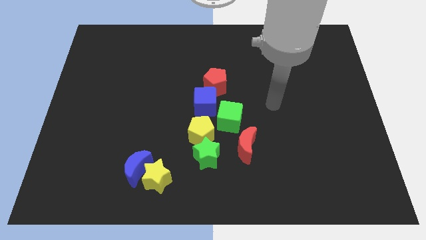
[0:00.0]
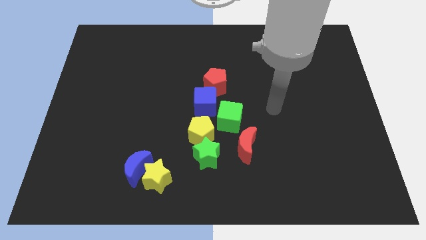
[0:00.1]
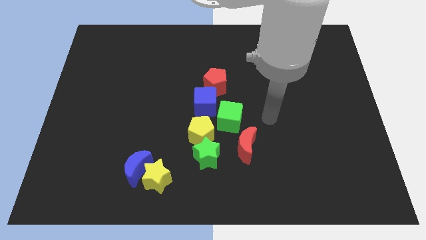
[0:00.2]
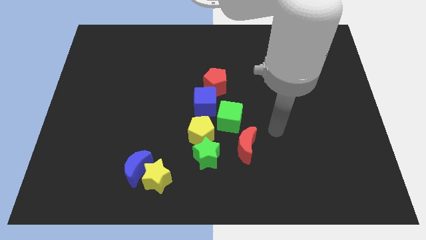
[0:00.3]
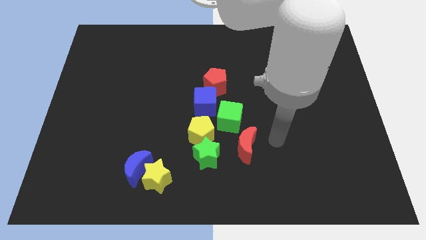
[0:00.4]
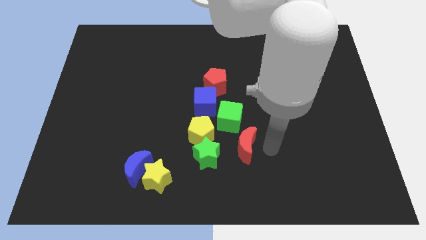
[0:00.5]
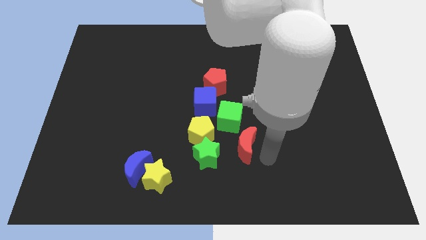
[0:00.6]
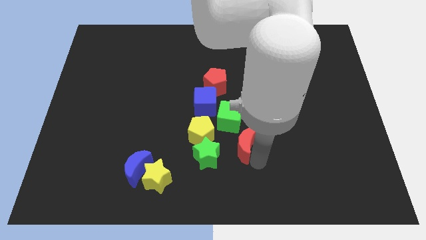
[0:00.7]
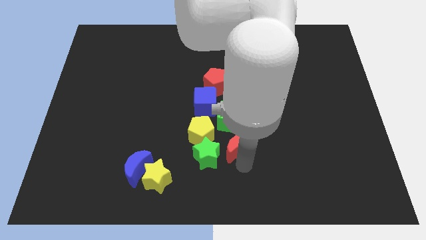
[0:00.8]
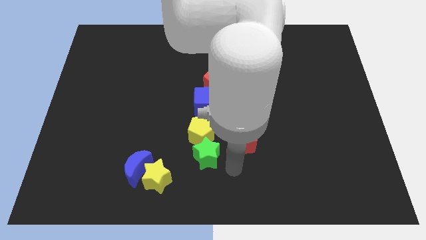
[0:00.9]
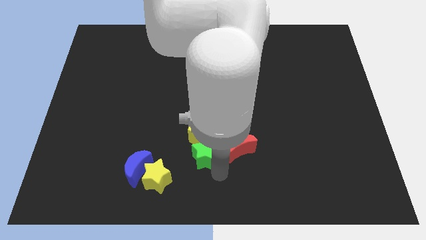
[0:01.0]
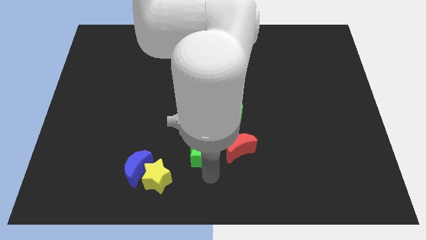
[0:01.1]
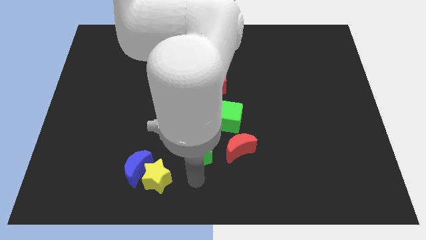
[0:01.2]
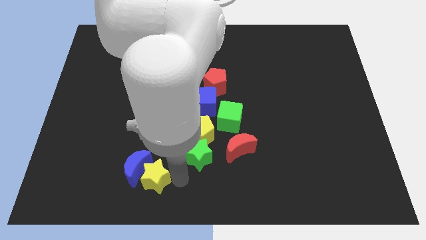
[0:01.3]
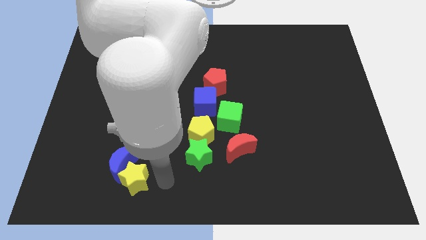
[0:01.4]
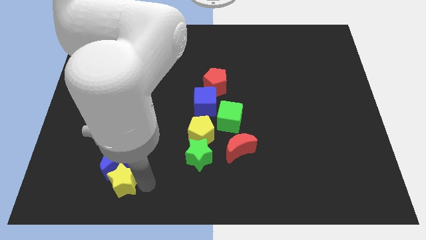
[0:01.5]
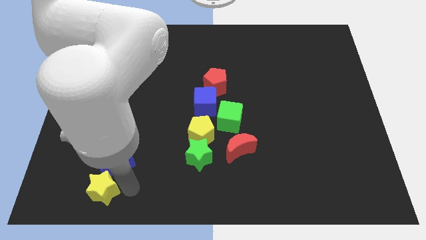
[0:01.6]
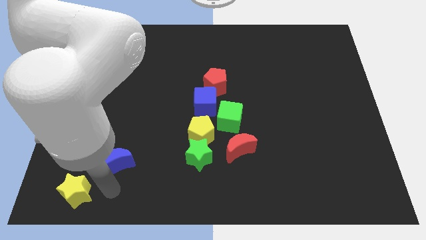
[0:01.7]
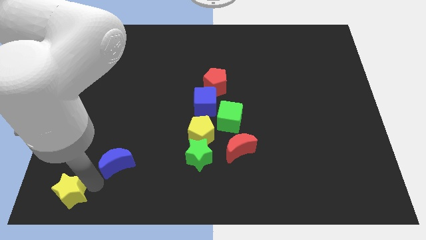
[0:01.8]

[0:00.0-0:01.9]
separate the blue moon from the yellow star

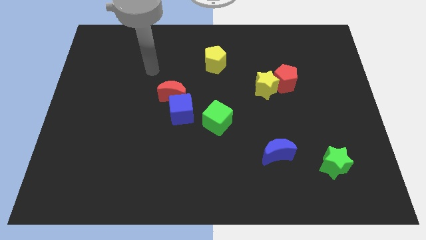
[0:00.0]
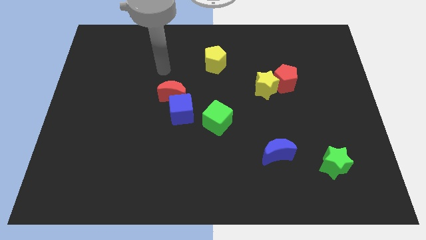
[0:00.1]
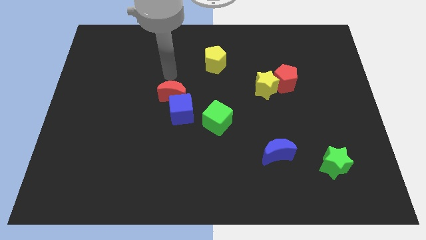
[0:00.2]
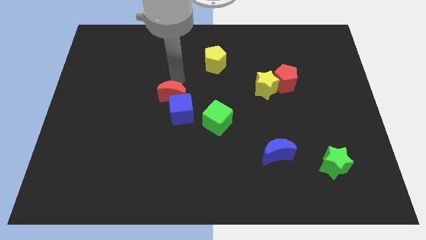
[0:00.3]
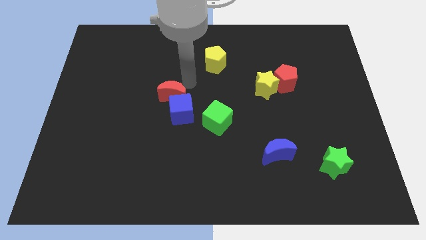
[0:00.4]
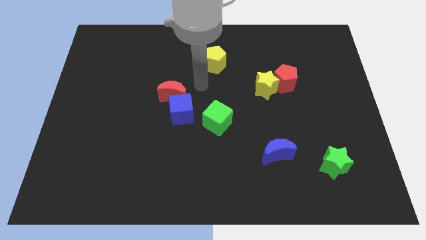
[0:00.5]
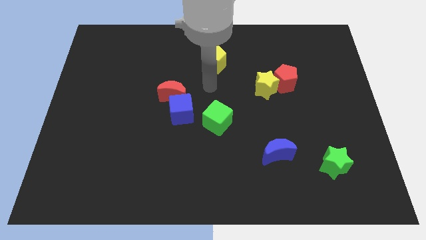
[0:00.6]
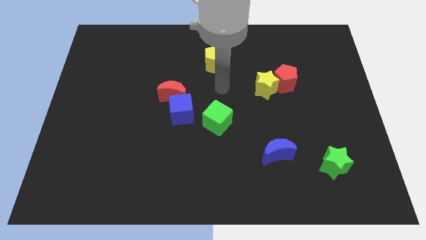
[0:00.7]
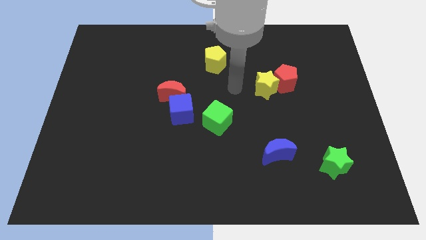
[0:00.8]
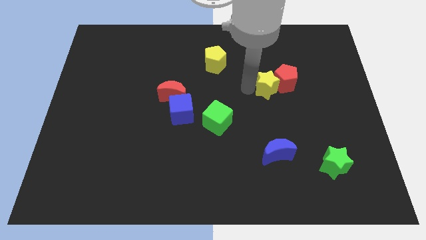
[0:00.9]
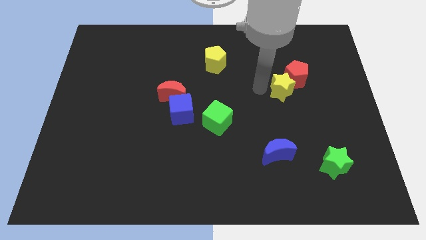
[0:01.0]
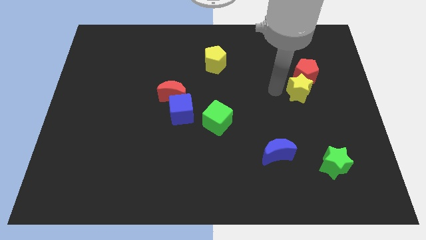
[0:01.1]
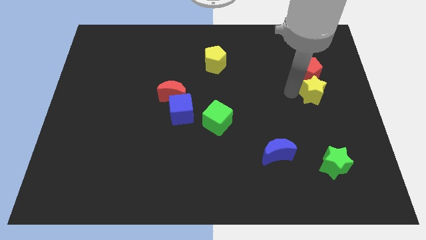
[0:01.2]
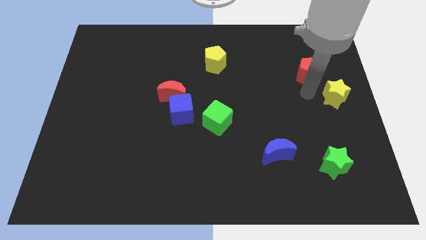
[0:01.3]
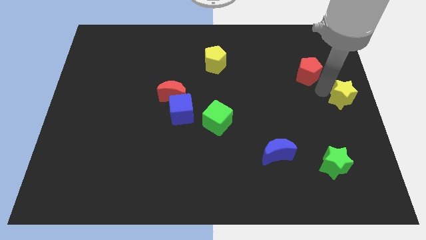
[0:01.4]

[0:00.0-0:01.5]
pull the red pentagon apart from the yellow star

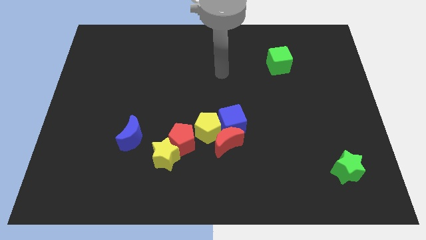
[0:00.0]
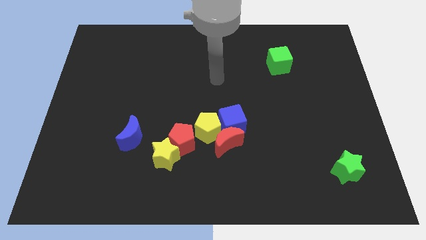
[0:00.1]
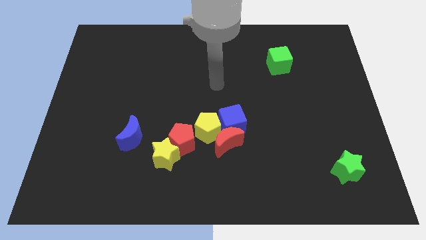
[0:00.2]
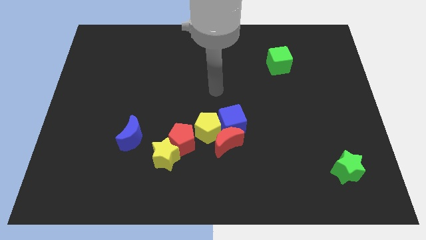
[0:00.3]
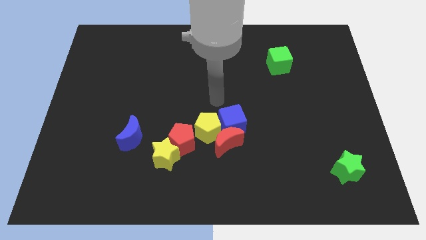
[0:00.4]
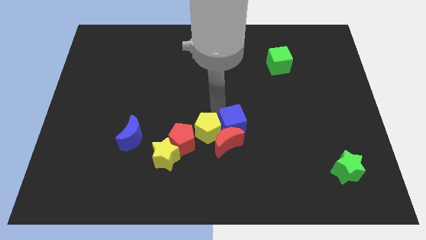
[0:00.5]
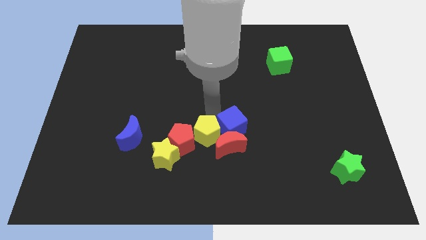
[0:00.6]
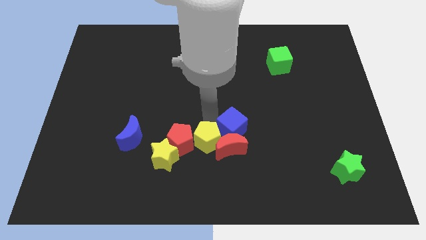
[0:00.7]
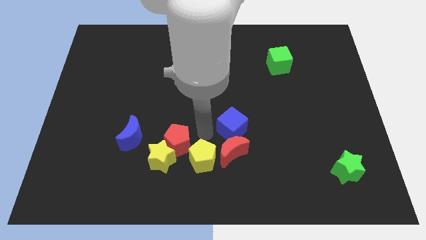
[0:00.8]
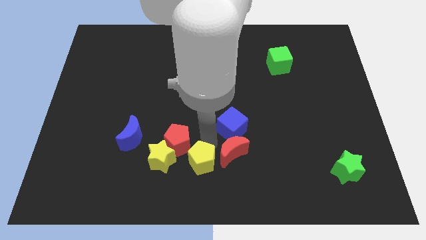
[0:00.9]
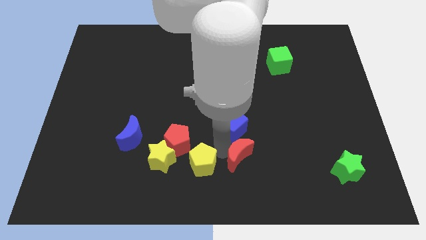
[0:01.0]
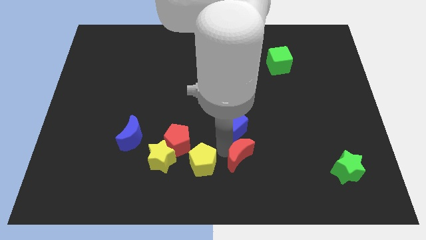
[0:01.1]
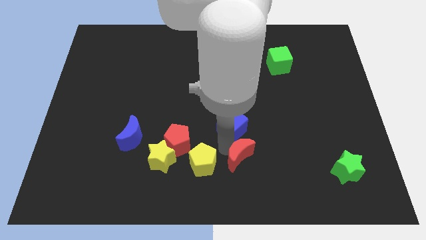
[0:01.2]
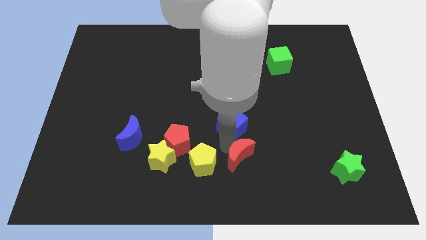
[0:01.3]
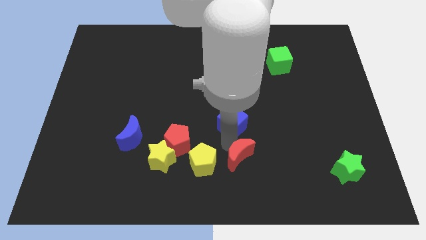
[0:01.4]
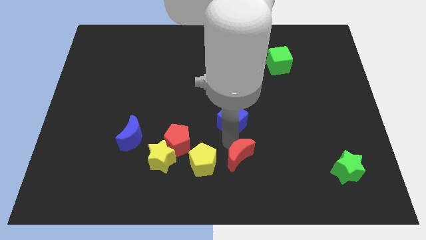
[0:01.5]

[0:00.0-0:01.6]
separate the blue cube from the red moon and yellow pentagon

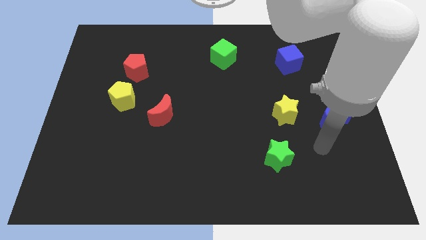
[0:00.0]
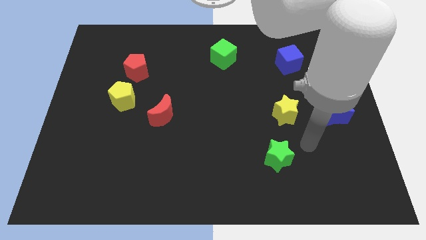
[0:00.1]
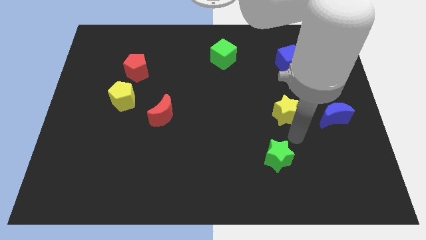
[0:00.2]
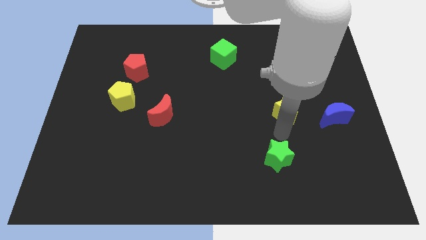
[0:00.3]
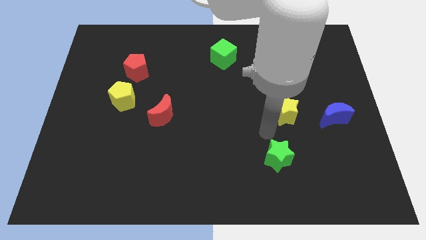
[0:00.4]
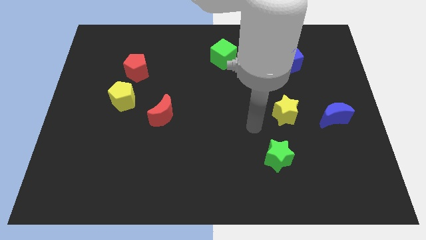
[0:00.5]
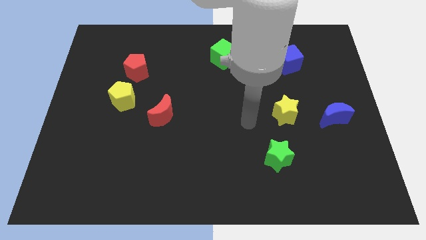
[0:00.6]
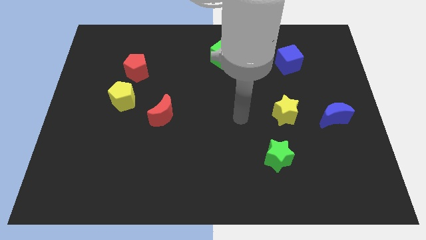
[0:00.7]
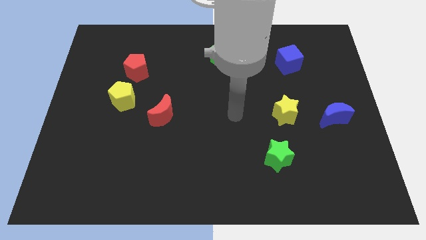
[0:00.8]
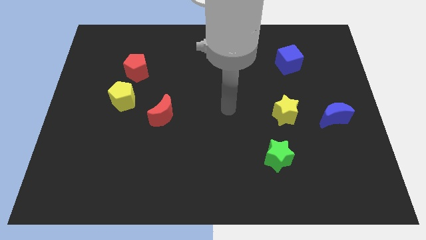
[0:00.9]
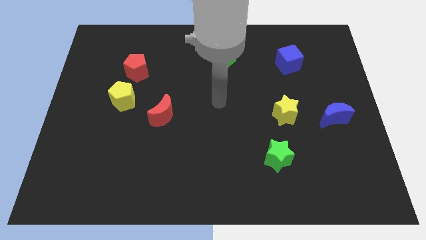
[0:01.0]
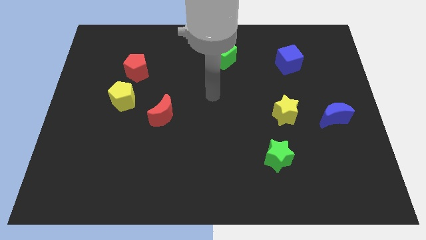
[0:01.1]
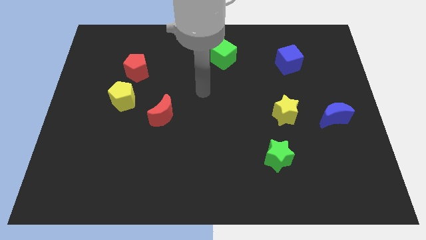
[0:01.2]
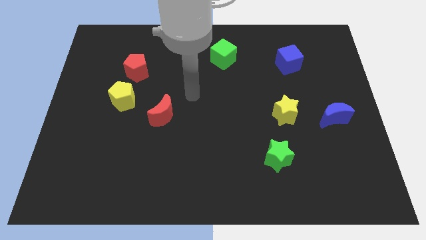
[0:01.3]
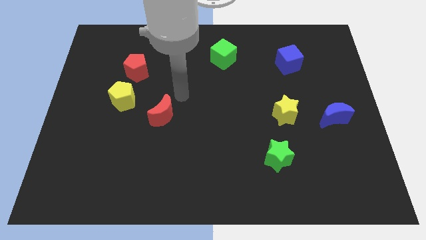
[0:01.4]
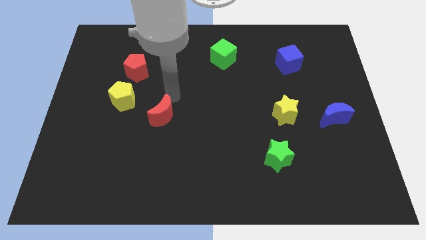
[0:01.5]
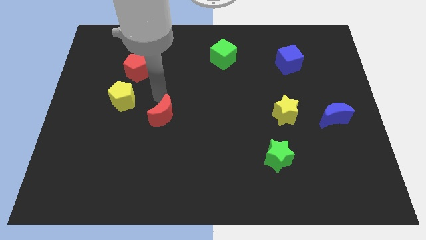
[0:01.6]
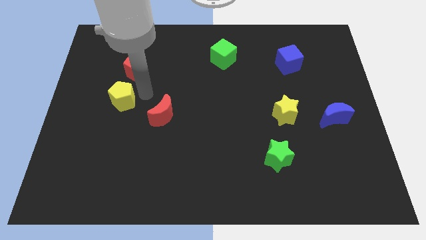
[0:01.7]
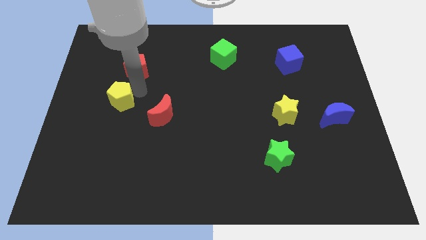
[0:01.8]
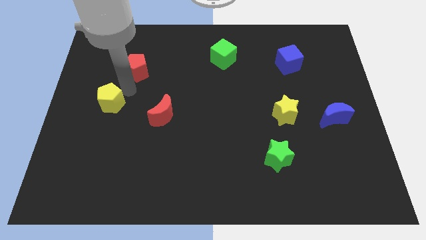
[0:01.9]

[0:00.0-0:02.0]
separate the red pentagon from the yellow pentagon

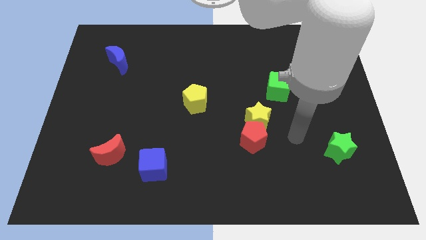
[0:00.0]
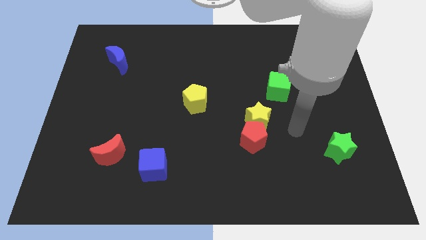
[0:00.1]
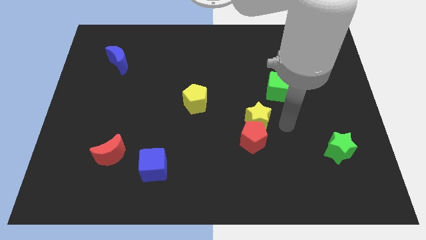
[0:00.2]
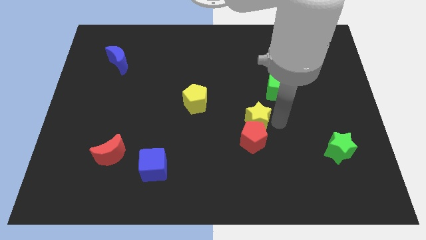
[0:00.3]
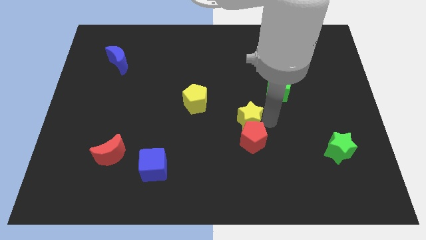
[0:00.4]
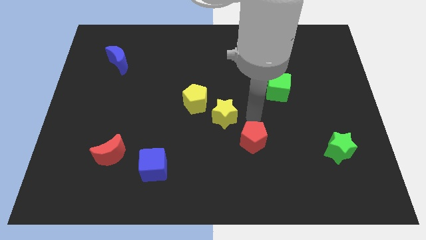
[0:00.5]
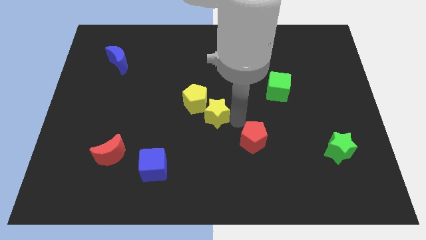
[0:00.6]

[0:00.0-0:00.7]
move the red pentagon away from the yellow star

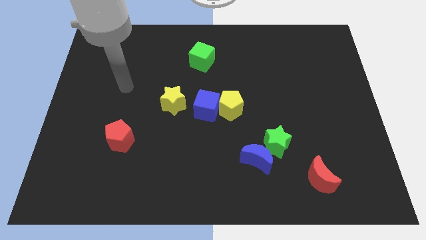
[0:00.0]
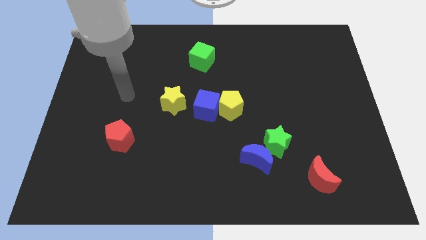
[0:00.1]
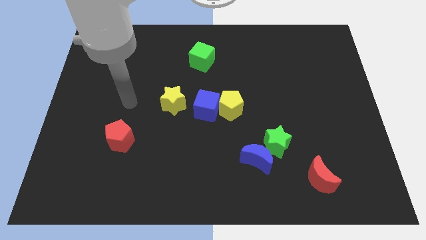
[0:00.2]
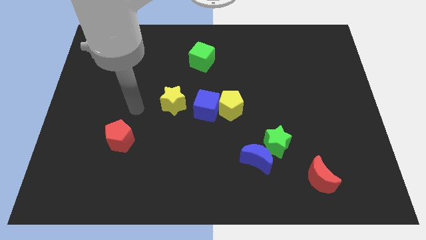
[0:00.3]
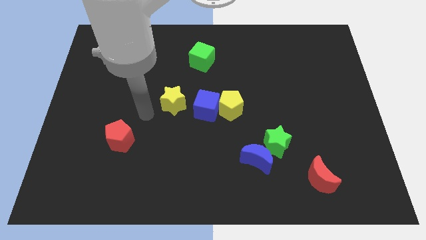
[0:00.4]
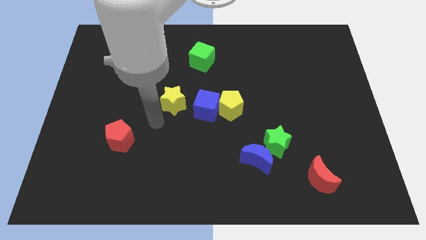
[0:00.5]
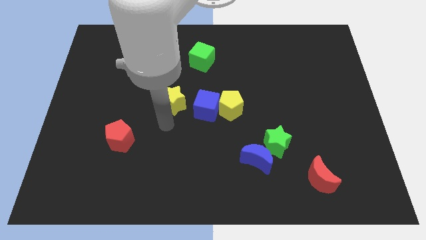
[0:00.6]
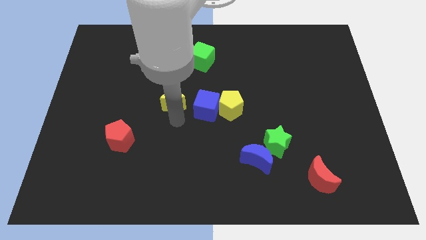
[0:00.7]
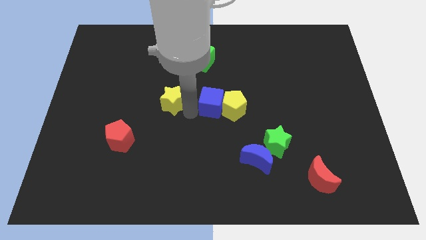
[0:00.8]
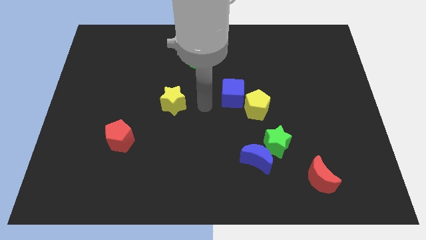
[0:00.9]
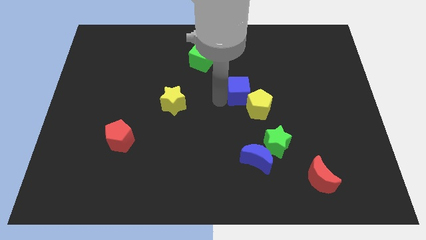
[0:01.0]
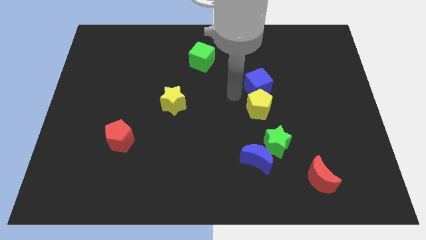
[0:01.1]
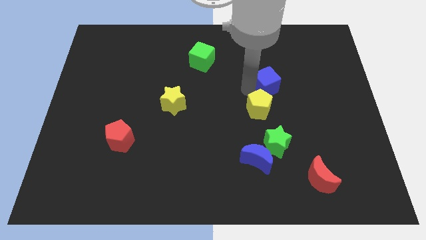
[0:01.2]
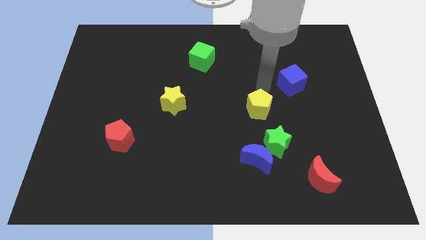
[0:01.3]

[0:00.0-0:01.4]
pull the yellow pentagon apart from the blue cube

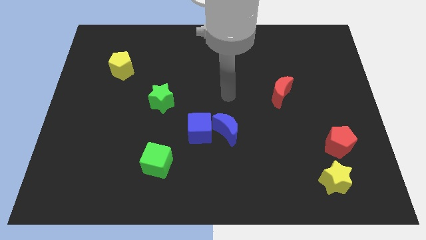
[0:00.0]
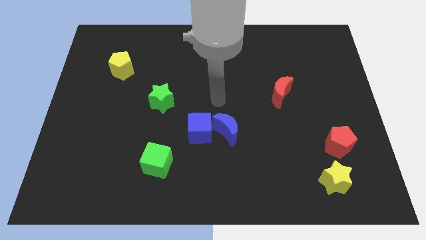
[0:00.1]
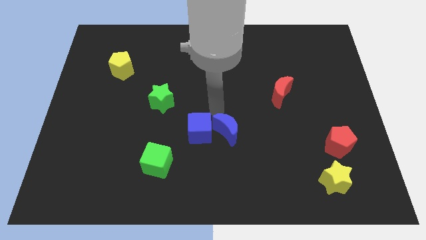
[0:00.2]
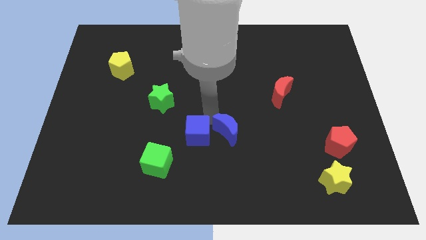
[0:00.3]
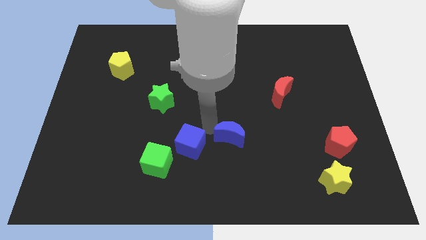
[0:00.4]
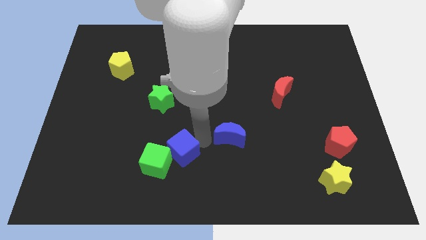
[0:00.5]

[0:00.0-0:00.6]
separate the blue moon from the blue cube
